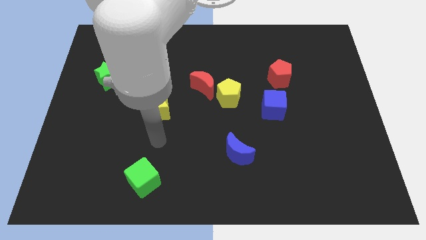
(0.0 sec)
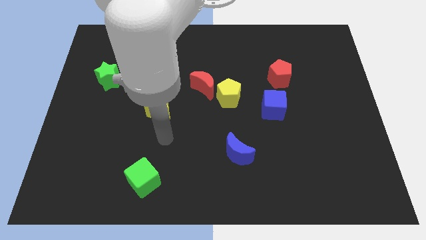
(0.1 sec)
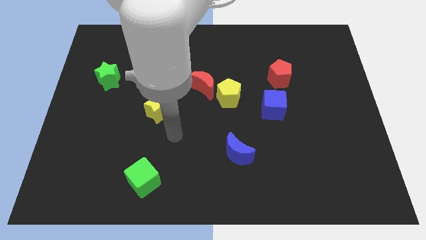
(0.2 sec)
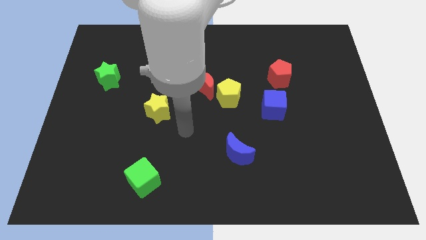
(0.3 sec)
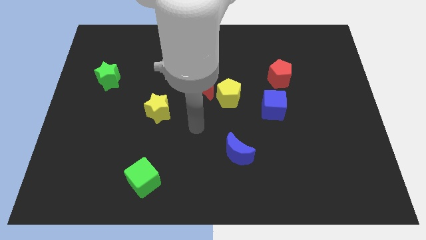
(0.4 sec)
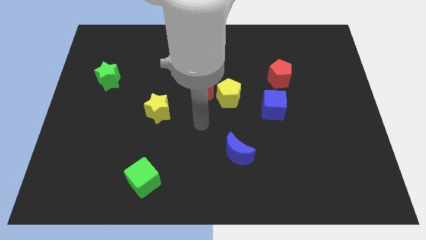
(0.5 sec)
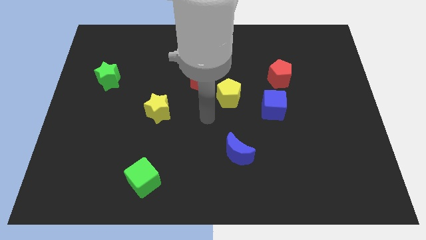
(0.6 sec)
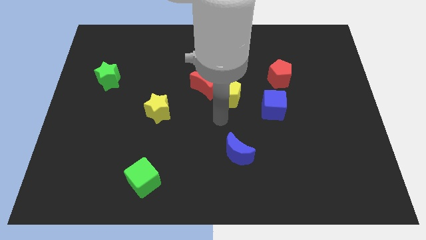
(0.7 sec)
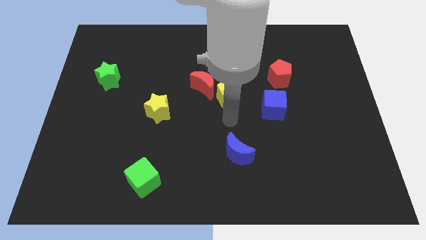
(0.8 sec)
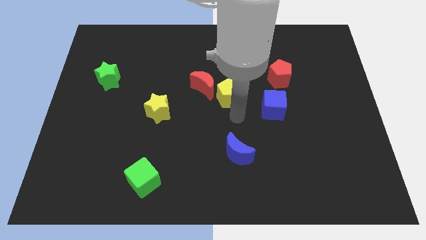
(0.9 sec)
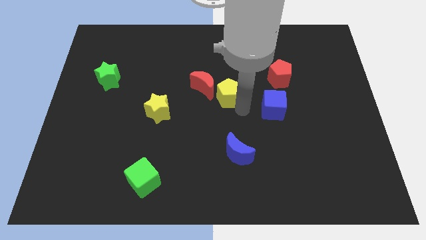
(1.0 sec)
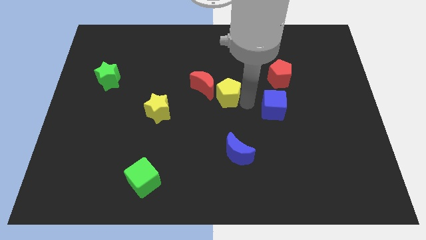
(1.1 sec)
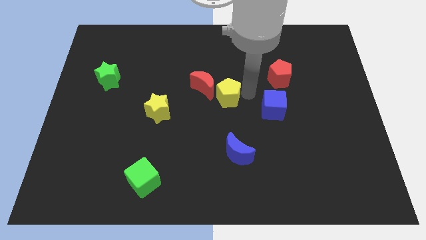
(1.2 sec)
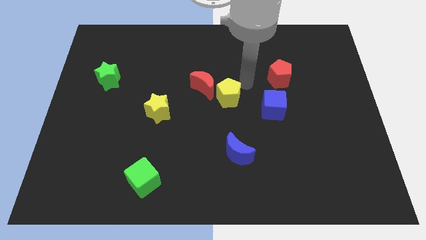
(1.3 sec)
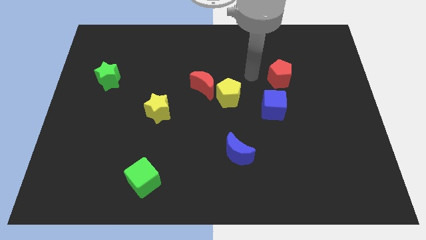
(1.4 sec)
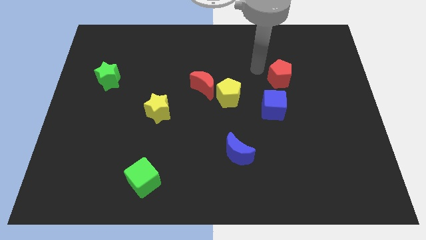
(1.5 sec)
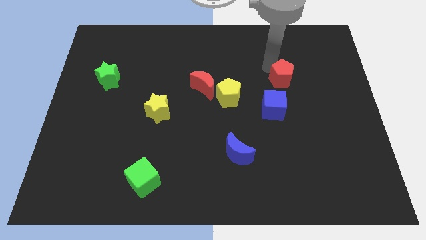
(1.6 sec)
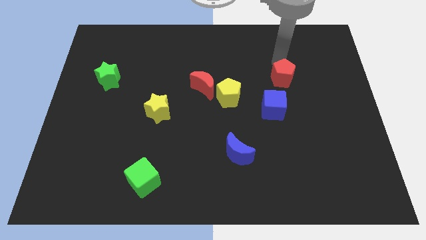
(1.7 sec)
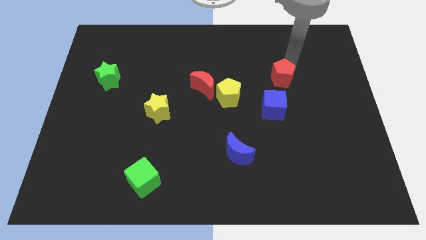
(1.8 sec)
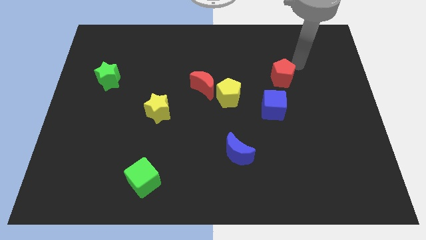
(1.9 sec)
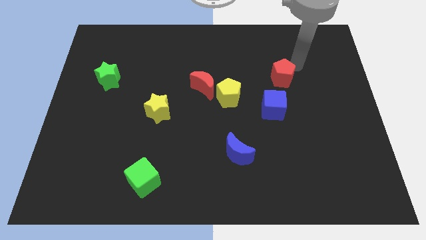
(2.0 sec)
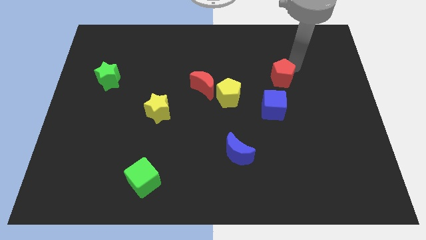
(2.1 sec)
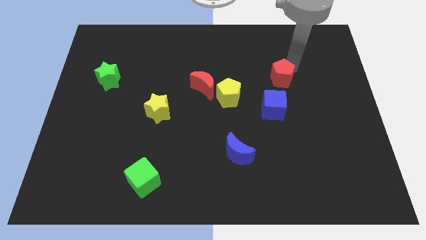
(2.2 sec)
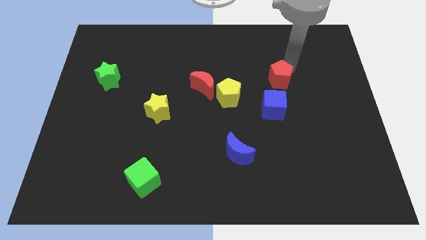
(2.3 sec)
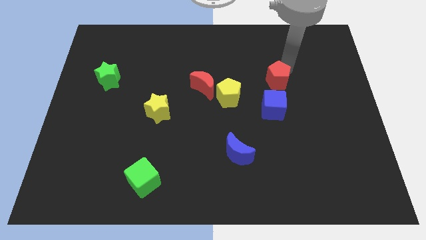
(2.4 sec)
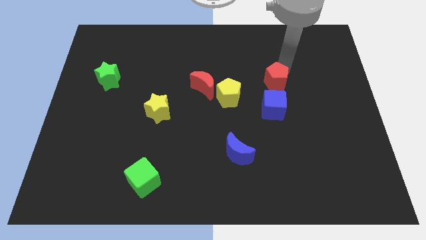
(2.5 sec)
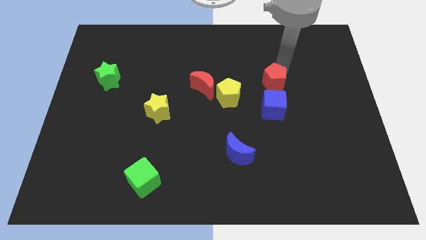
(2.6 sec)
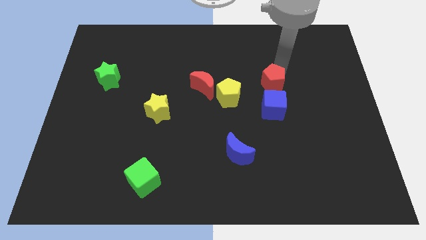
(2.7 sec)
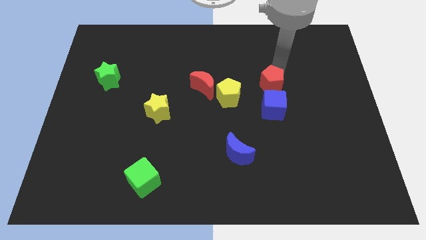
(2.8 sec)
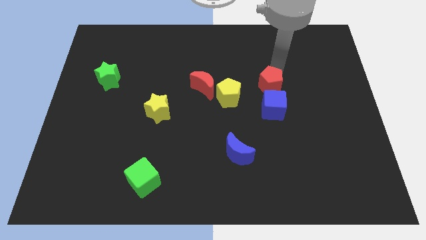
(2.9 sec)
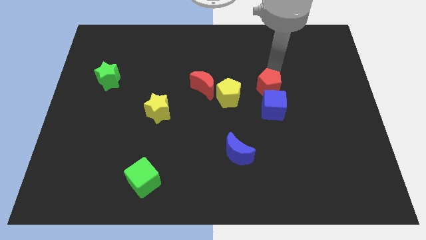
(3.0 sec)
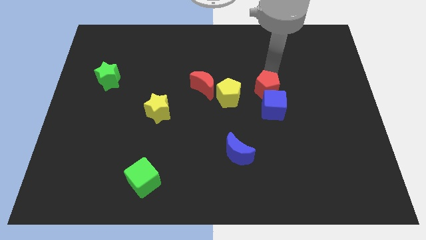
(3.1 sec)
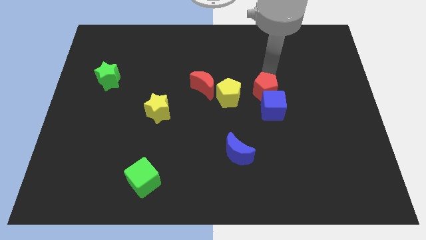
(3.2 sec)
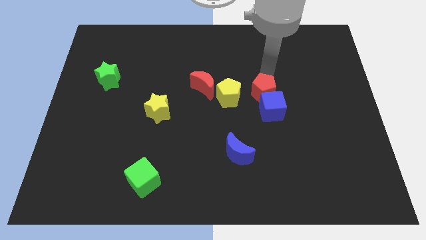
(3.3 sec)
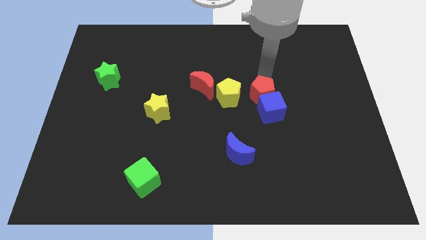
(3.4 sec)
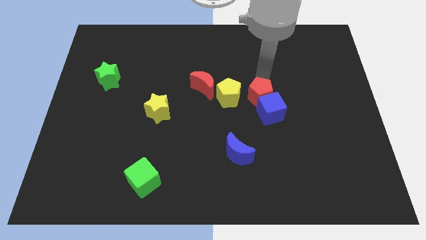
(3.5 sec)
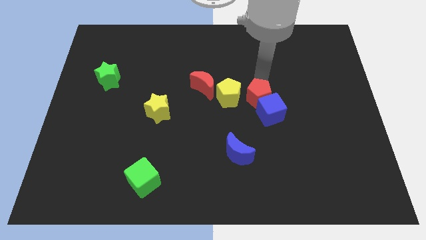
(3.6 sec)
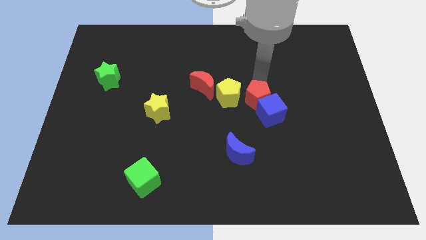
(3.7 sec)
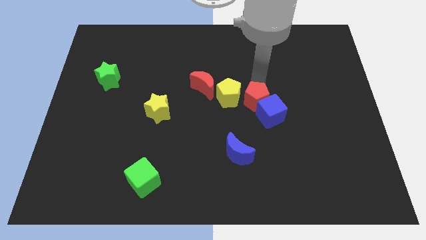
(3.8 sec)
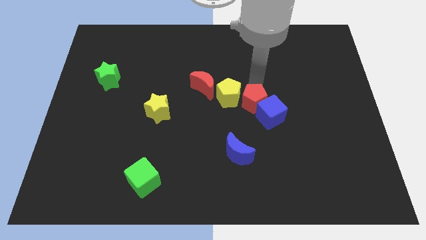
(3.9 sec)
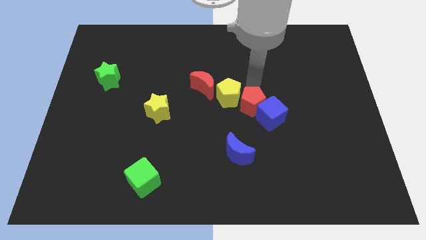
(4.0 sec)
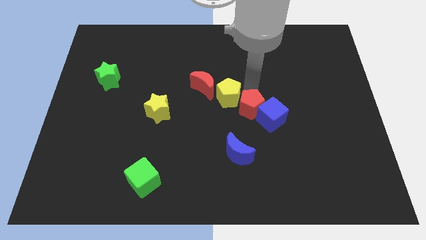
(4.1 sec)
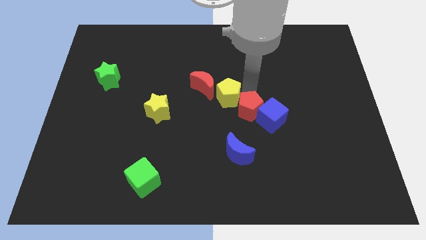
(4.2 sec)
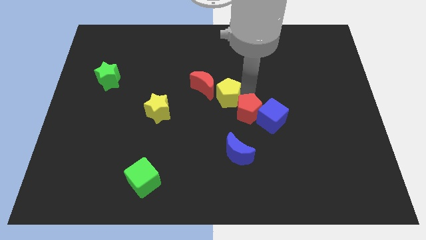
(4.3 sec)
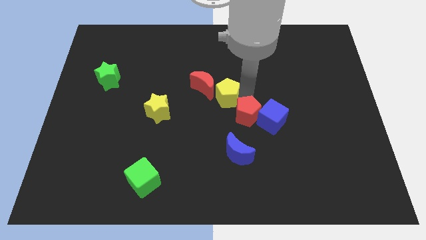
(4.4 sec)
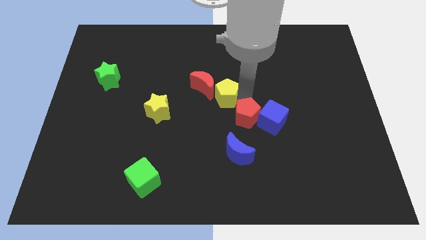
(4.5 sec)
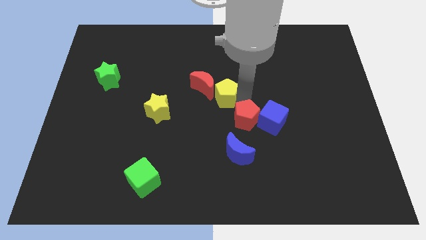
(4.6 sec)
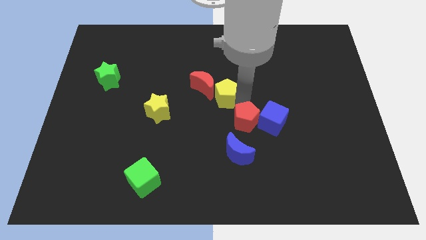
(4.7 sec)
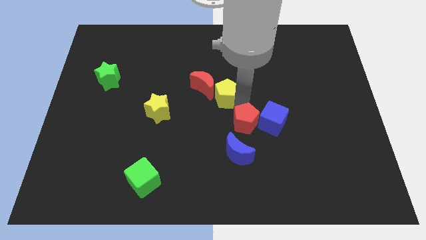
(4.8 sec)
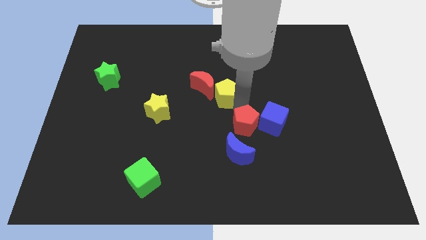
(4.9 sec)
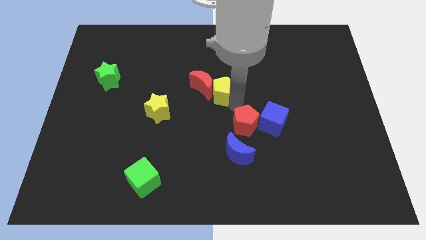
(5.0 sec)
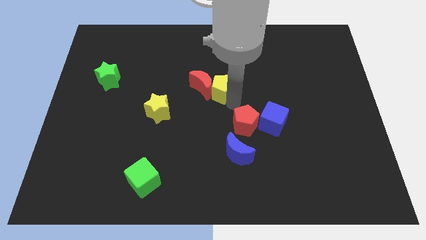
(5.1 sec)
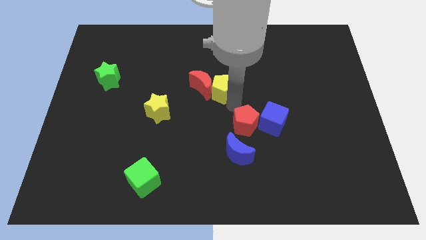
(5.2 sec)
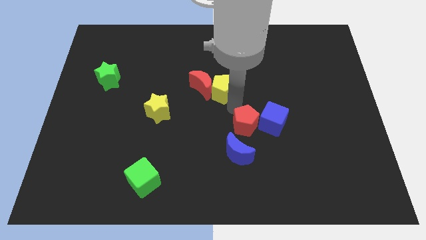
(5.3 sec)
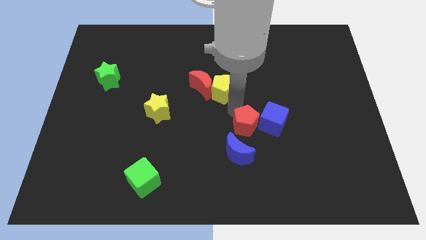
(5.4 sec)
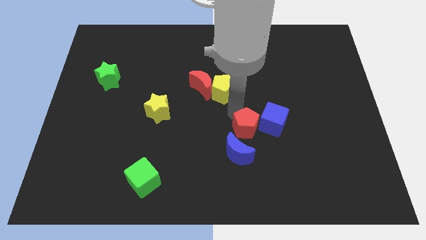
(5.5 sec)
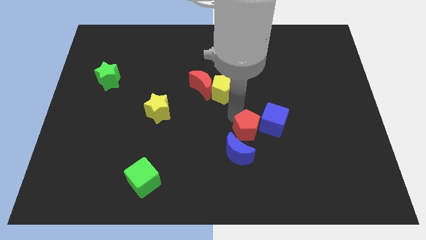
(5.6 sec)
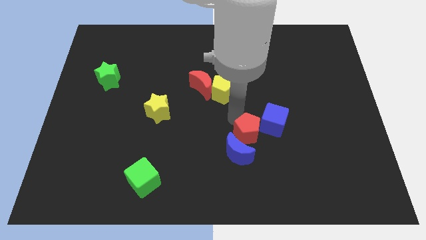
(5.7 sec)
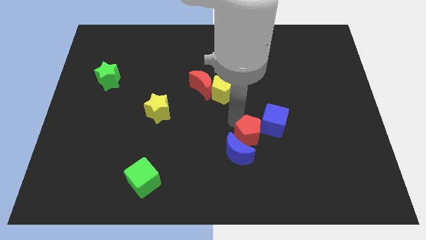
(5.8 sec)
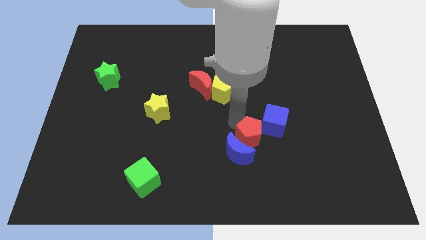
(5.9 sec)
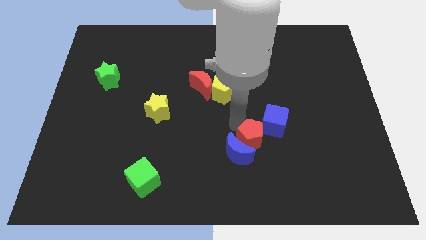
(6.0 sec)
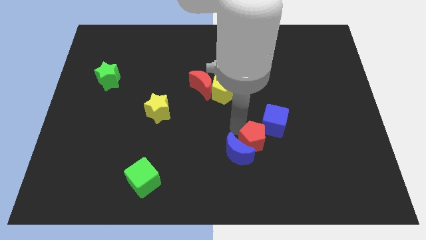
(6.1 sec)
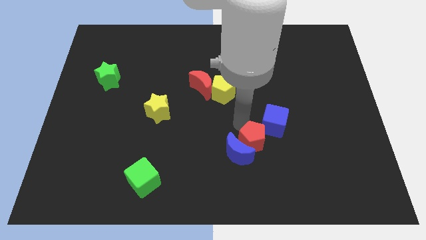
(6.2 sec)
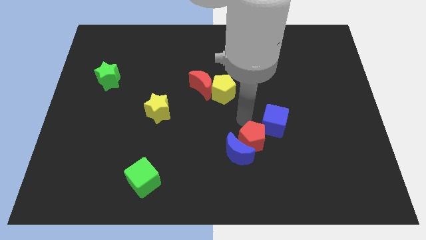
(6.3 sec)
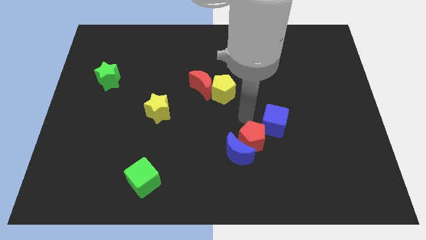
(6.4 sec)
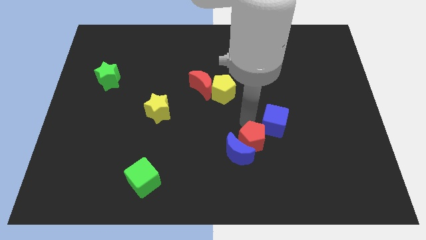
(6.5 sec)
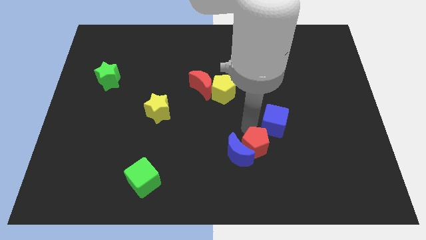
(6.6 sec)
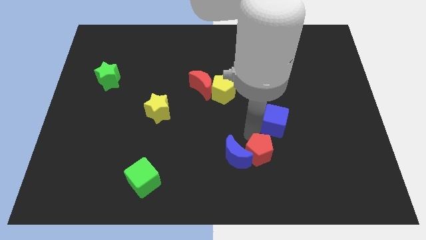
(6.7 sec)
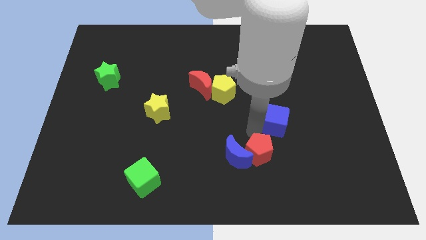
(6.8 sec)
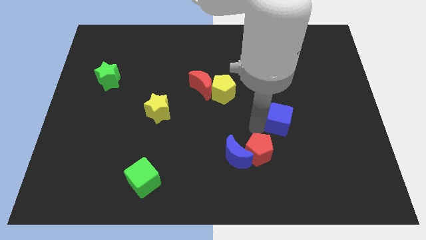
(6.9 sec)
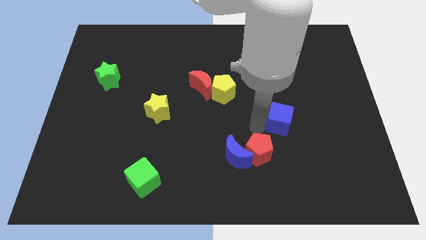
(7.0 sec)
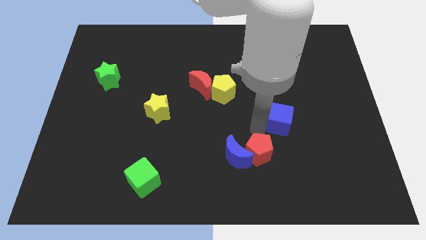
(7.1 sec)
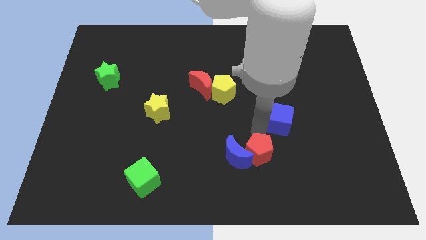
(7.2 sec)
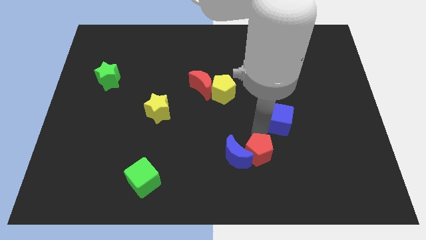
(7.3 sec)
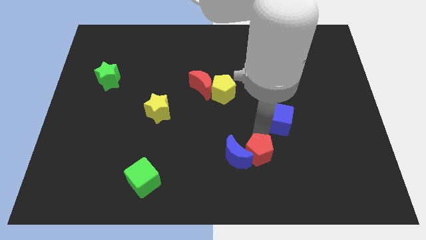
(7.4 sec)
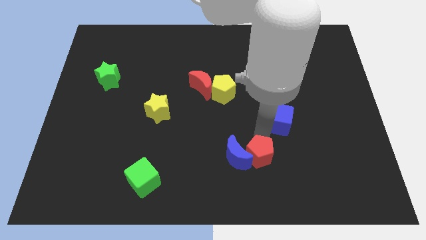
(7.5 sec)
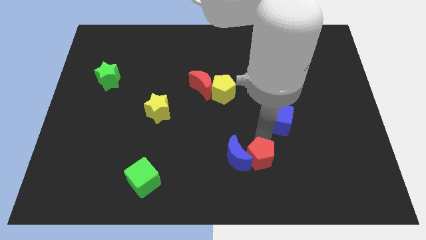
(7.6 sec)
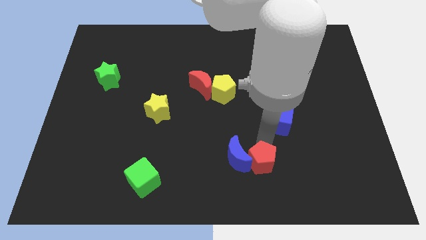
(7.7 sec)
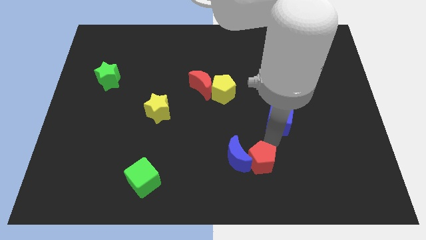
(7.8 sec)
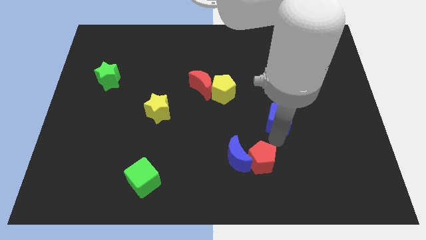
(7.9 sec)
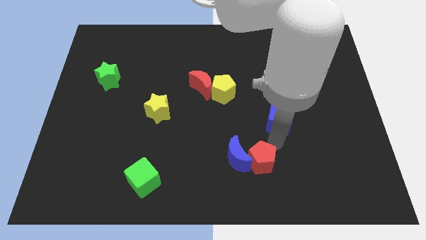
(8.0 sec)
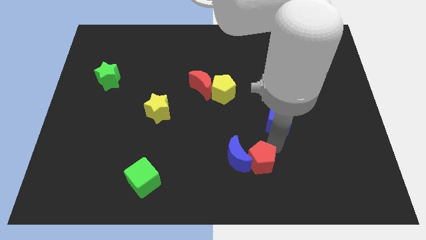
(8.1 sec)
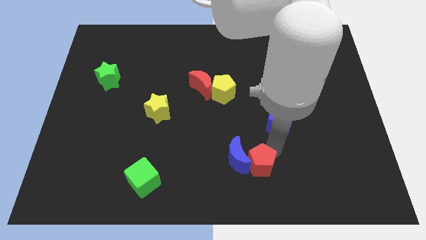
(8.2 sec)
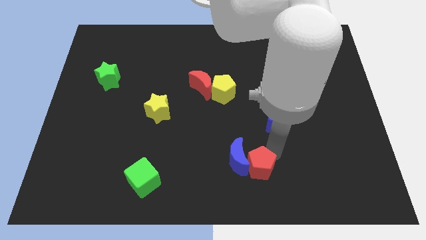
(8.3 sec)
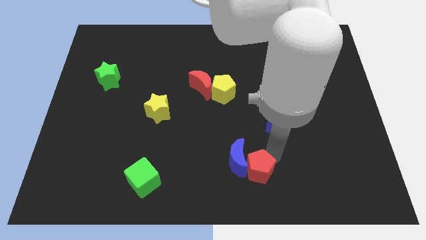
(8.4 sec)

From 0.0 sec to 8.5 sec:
move the red pentagon to the bottom side
